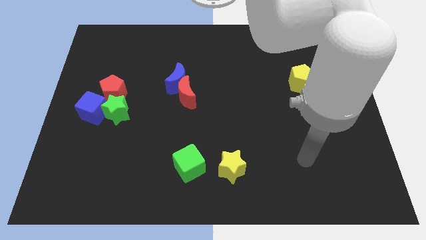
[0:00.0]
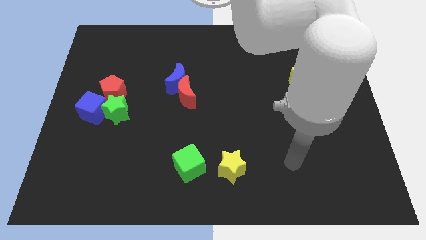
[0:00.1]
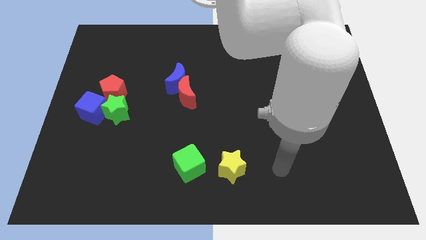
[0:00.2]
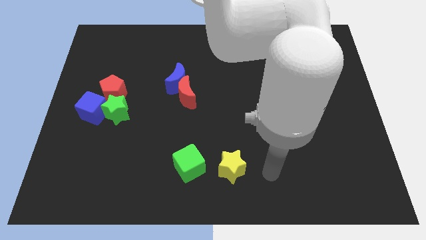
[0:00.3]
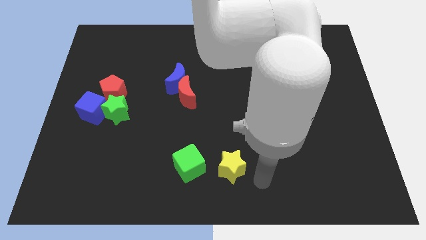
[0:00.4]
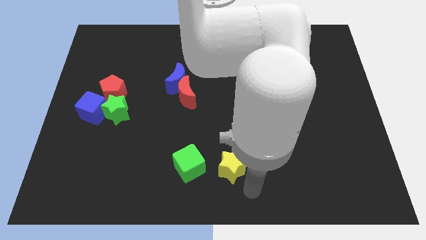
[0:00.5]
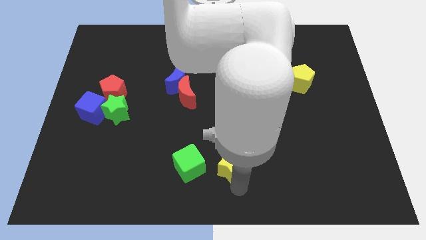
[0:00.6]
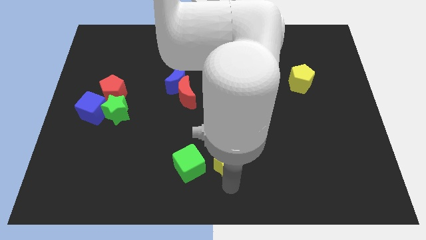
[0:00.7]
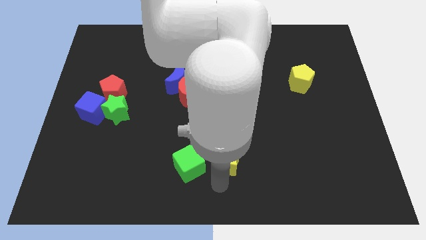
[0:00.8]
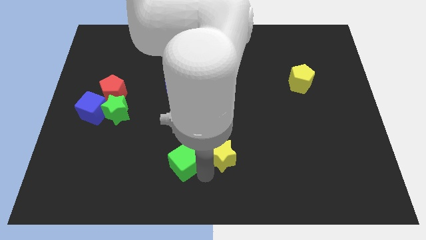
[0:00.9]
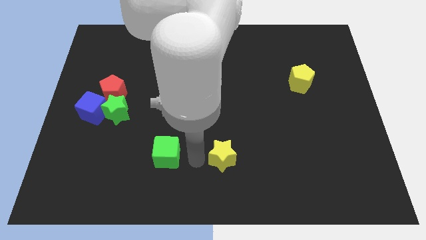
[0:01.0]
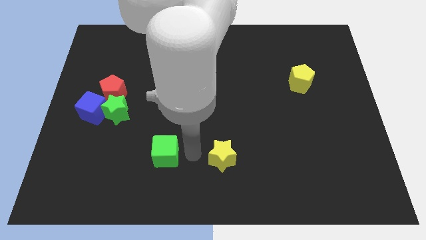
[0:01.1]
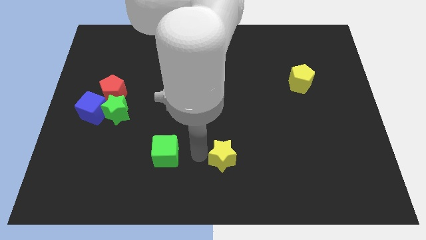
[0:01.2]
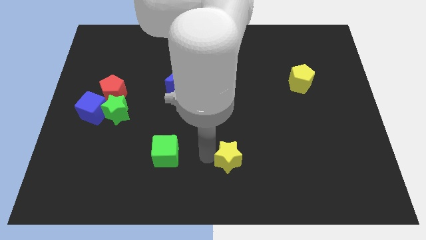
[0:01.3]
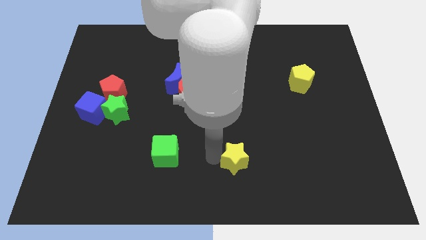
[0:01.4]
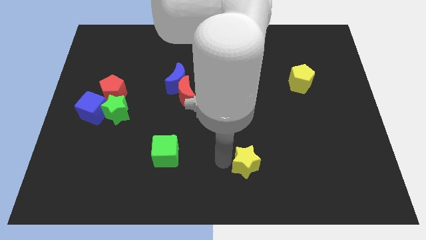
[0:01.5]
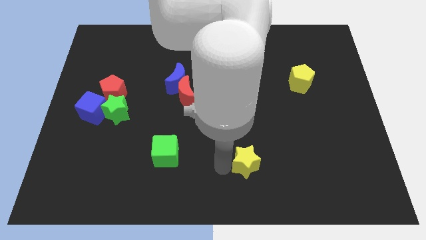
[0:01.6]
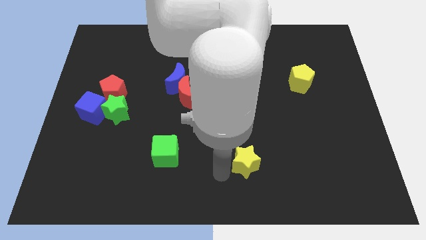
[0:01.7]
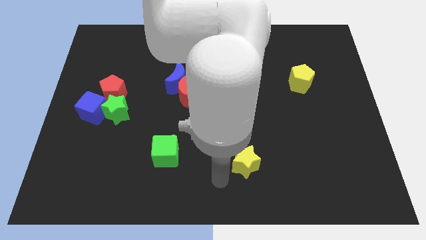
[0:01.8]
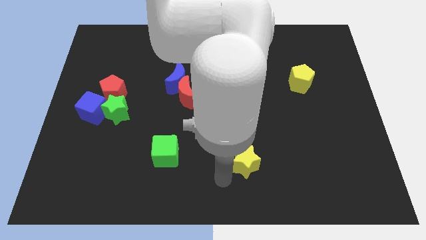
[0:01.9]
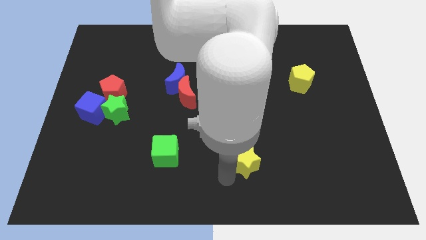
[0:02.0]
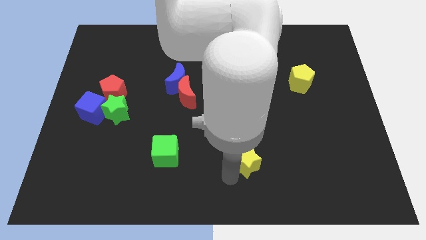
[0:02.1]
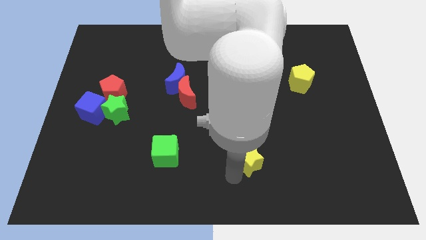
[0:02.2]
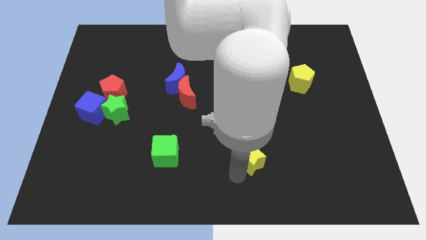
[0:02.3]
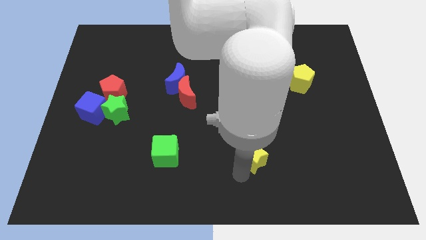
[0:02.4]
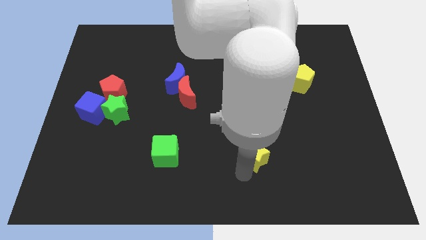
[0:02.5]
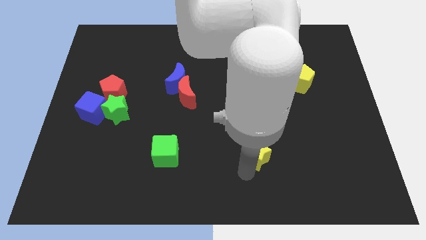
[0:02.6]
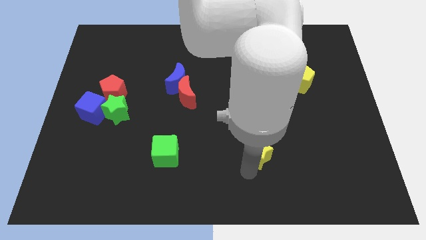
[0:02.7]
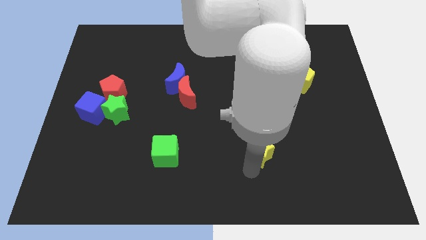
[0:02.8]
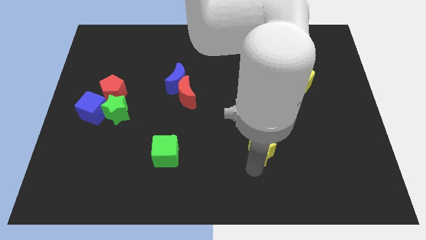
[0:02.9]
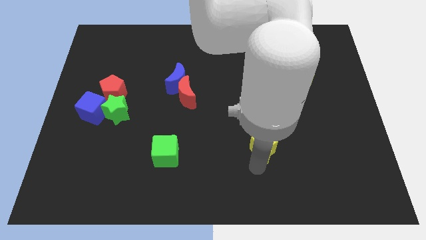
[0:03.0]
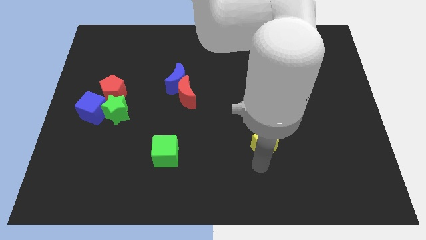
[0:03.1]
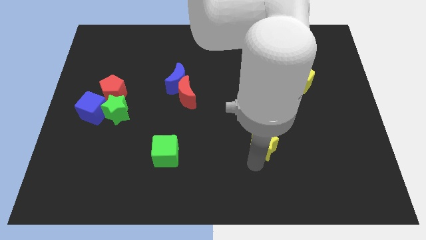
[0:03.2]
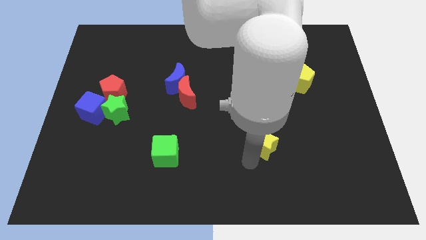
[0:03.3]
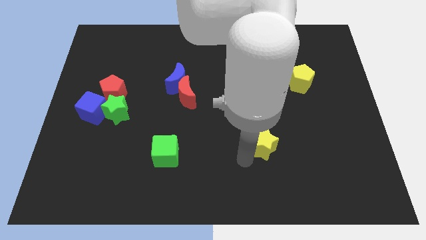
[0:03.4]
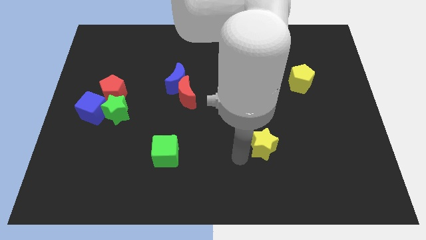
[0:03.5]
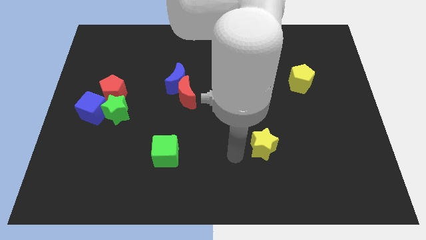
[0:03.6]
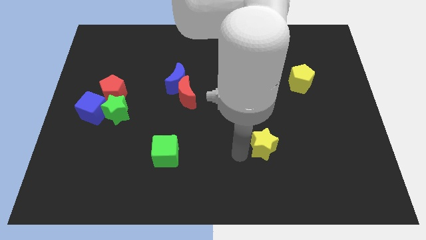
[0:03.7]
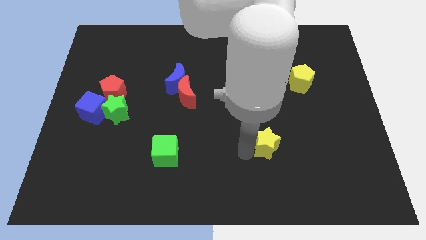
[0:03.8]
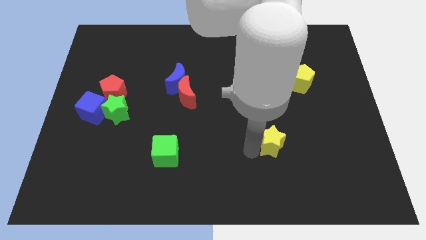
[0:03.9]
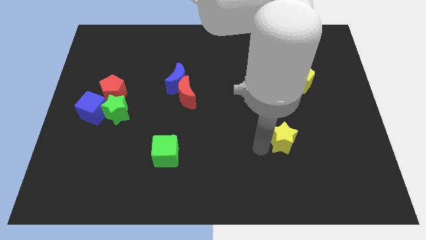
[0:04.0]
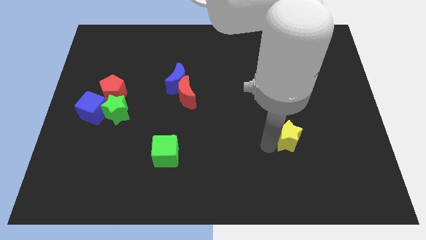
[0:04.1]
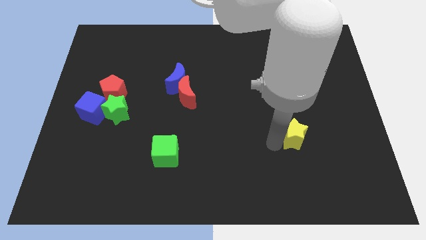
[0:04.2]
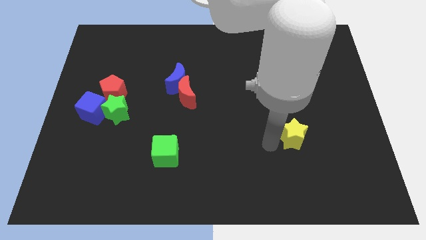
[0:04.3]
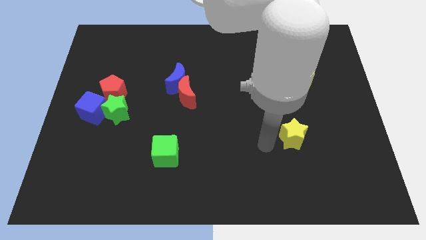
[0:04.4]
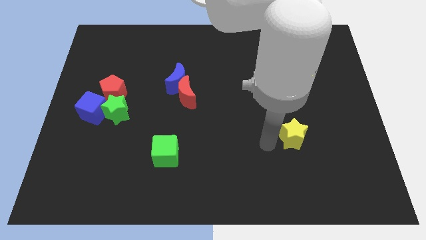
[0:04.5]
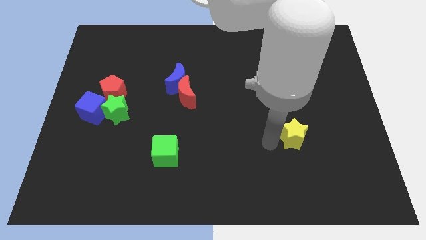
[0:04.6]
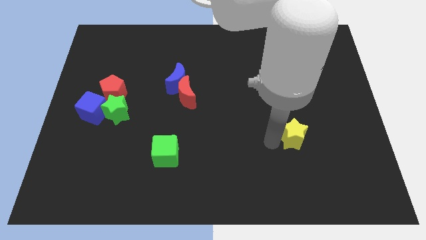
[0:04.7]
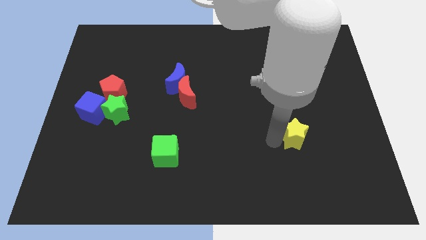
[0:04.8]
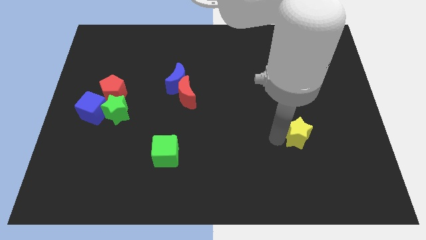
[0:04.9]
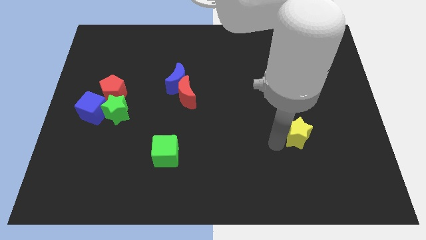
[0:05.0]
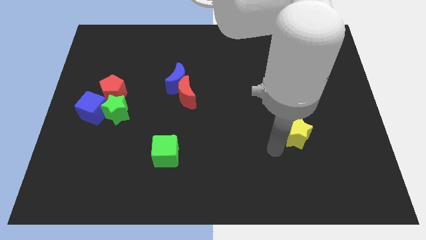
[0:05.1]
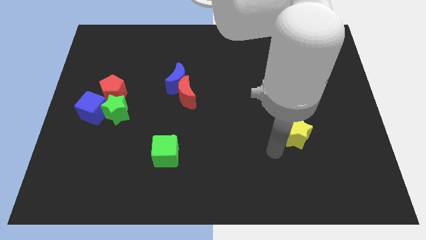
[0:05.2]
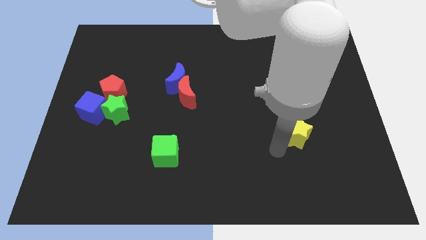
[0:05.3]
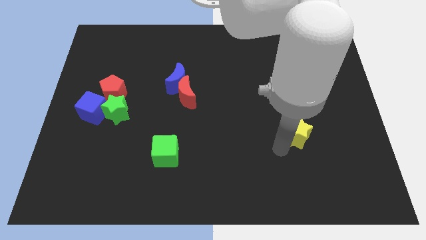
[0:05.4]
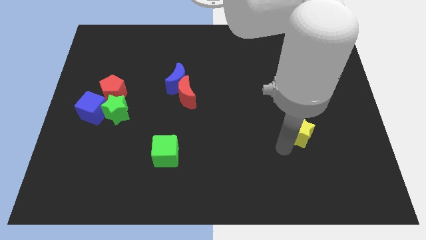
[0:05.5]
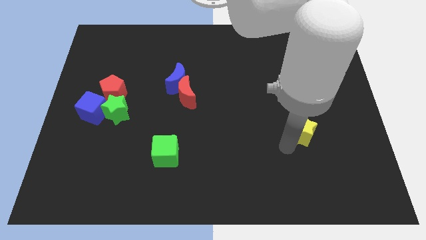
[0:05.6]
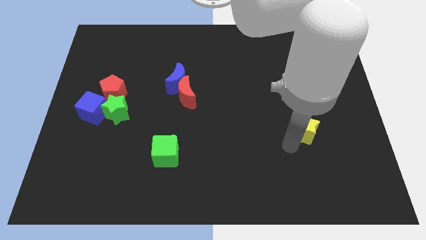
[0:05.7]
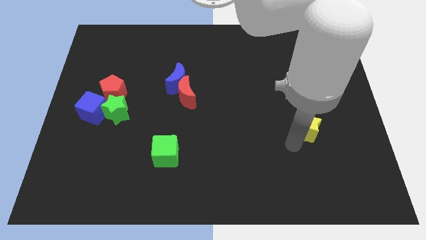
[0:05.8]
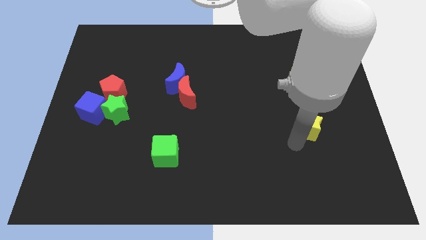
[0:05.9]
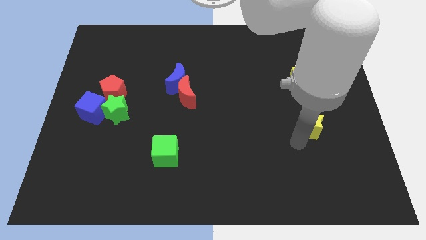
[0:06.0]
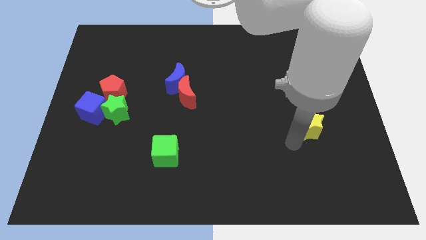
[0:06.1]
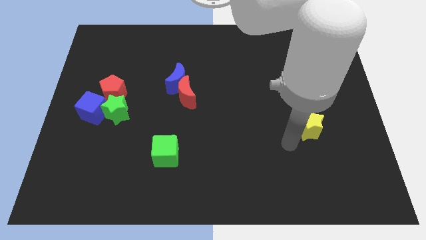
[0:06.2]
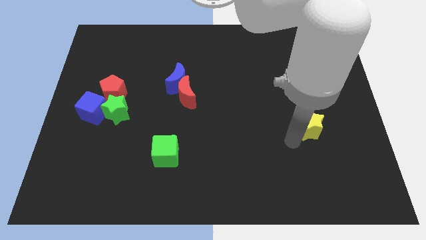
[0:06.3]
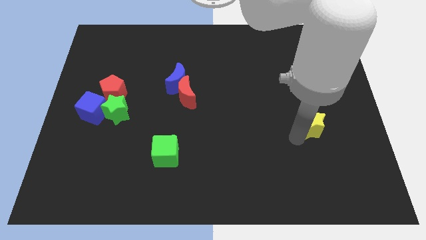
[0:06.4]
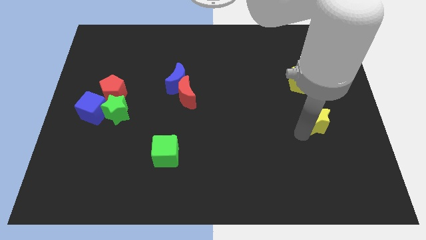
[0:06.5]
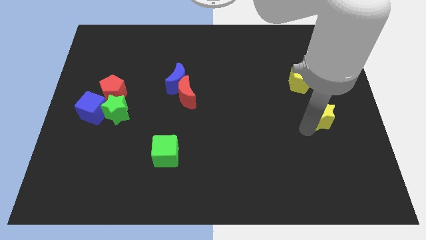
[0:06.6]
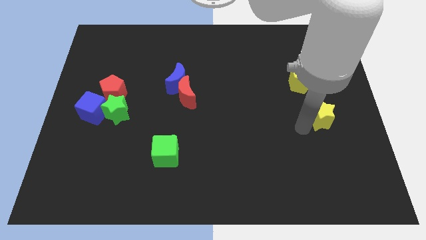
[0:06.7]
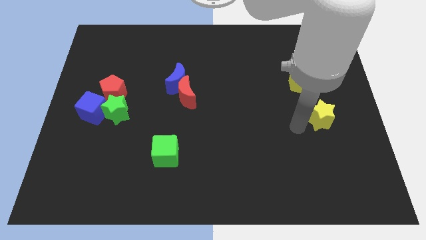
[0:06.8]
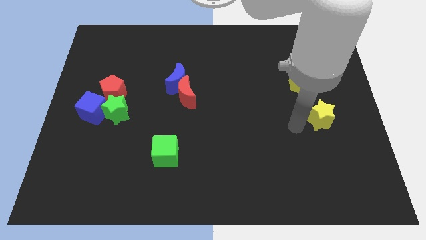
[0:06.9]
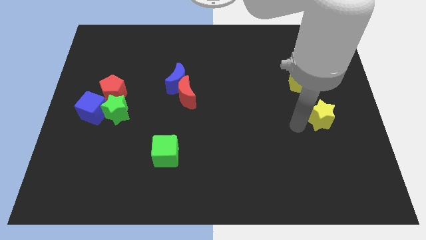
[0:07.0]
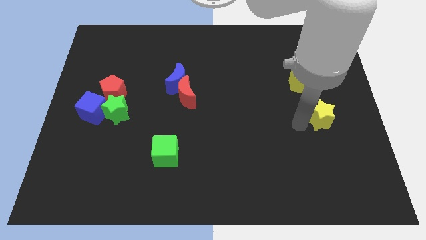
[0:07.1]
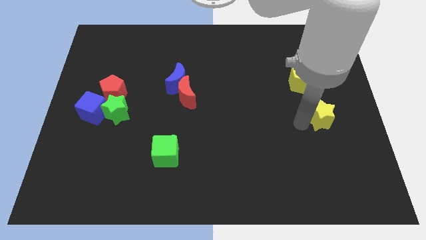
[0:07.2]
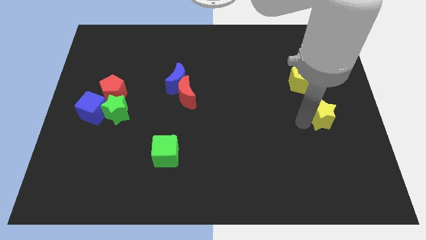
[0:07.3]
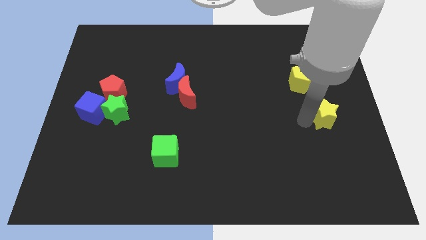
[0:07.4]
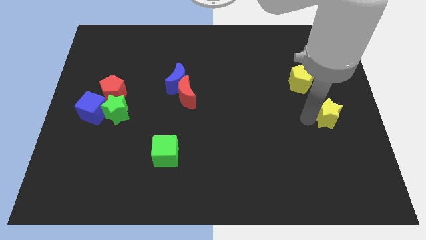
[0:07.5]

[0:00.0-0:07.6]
put the yellow star to the right side of the board
